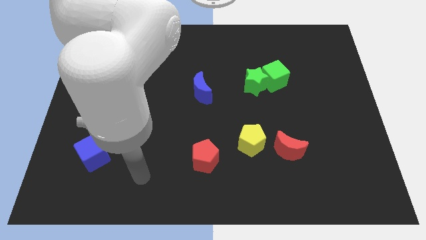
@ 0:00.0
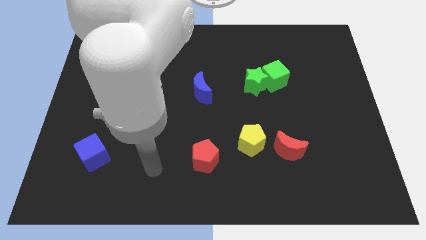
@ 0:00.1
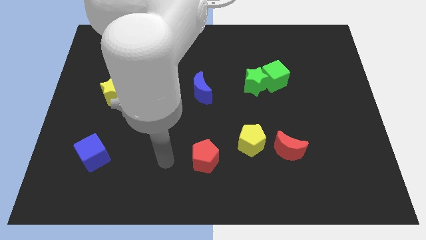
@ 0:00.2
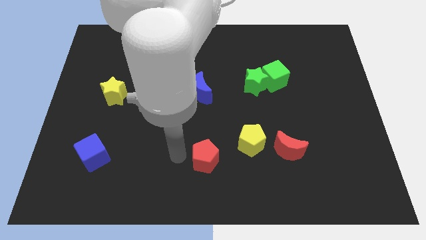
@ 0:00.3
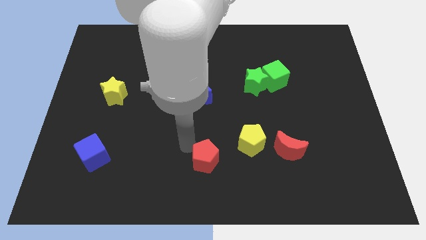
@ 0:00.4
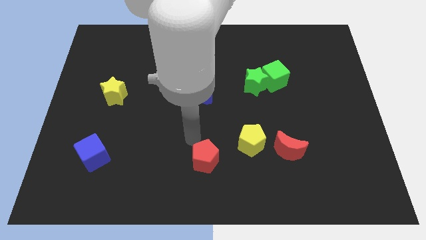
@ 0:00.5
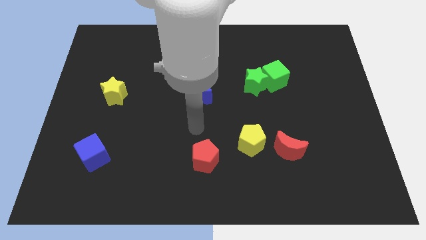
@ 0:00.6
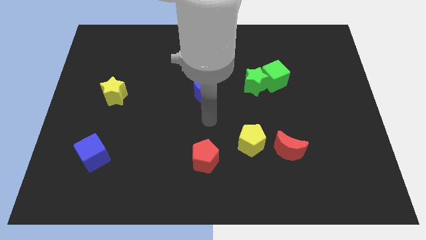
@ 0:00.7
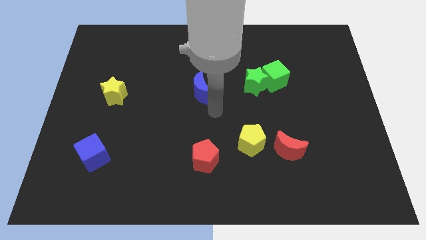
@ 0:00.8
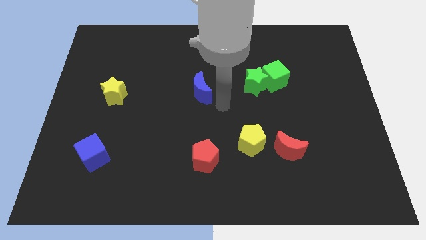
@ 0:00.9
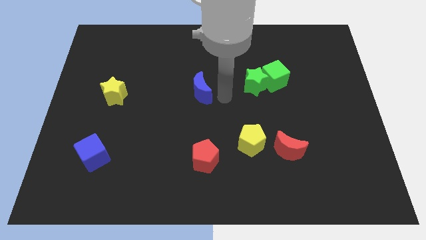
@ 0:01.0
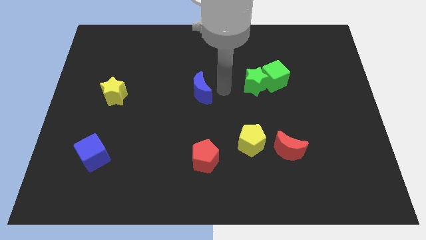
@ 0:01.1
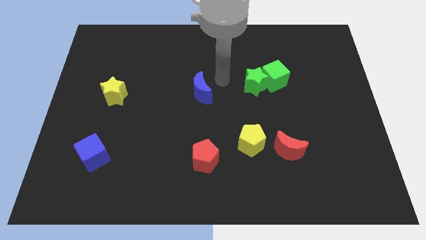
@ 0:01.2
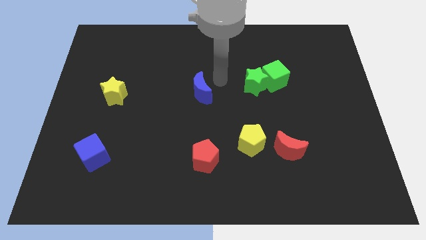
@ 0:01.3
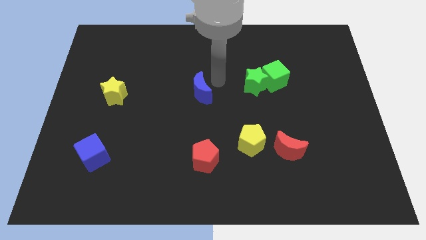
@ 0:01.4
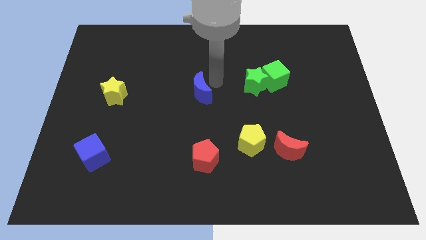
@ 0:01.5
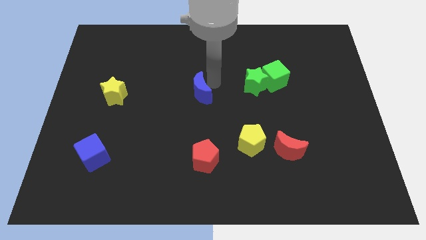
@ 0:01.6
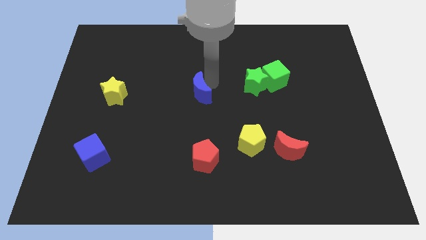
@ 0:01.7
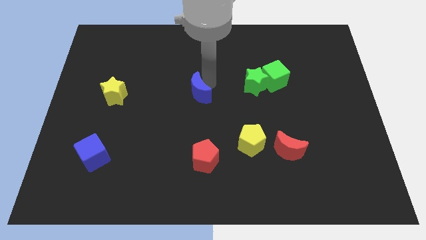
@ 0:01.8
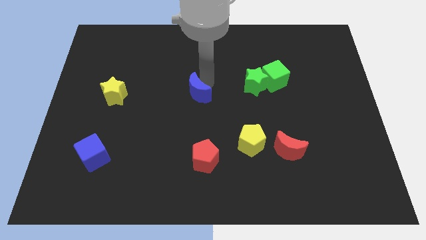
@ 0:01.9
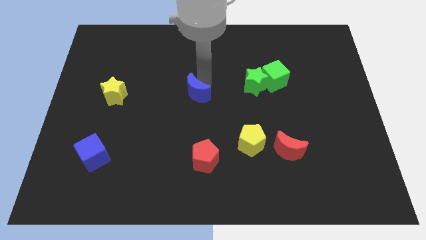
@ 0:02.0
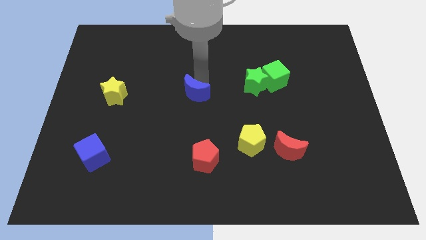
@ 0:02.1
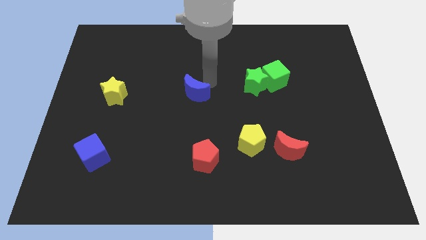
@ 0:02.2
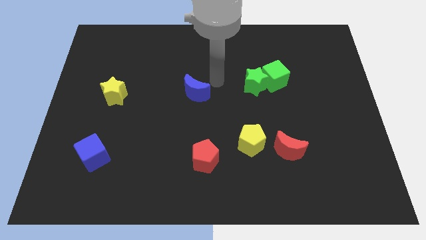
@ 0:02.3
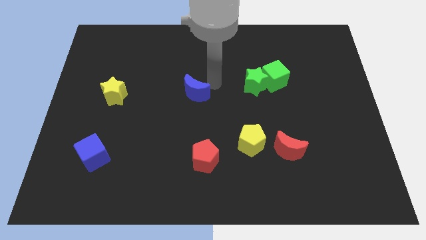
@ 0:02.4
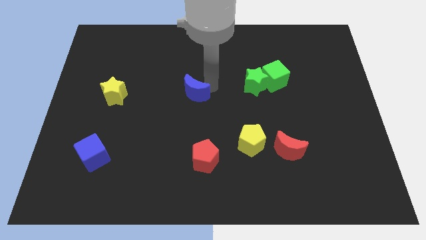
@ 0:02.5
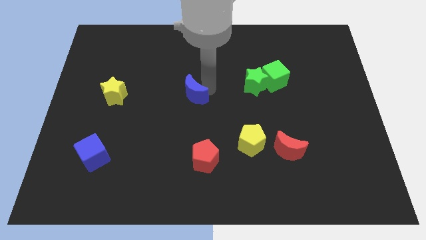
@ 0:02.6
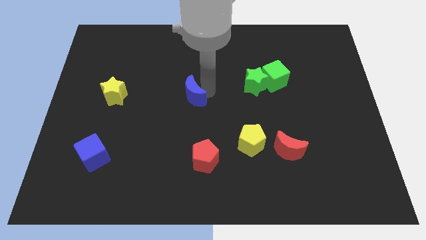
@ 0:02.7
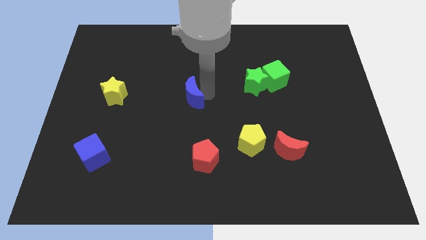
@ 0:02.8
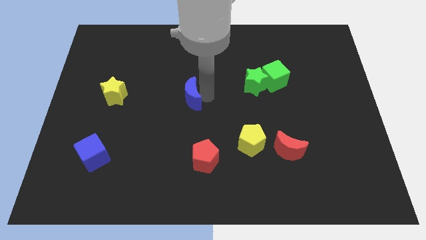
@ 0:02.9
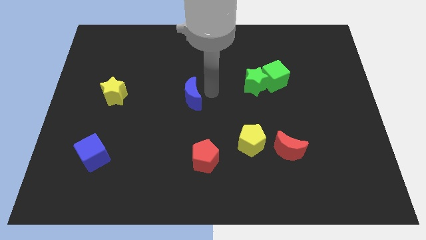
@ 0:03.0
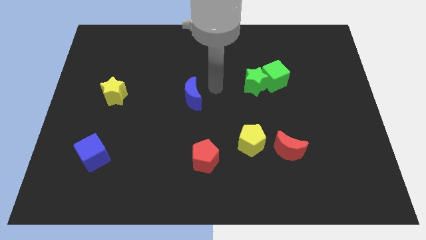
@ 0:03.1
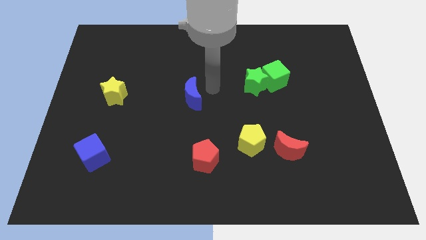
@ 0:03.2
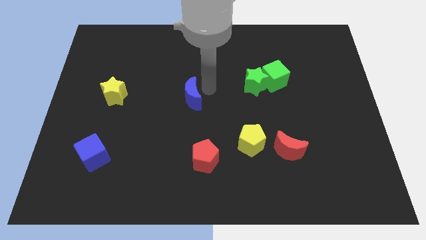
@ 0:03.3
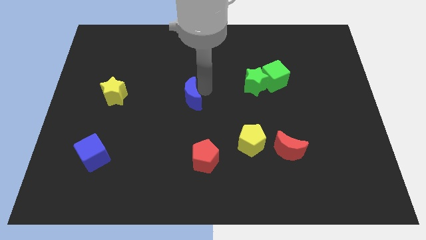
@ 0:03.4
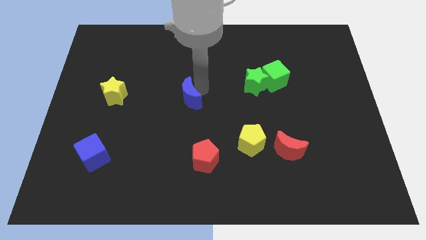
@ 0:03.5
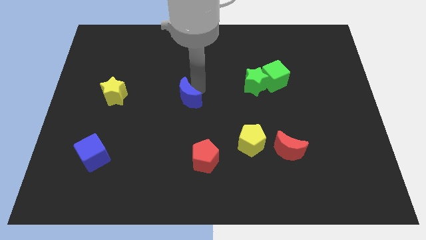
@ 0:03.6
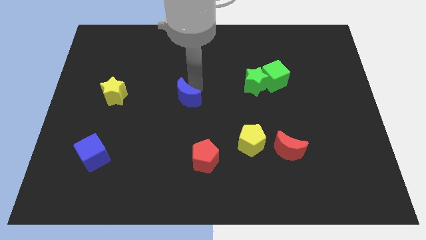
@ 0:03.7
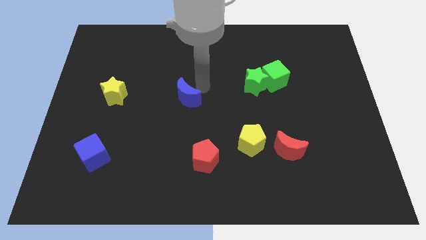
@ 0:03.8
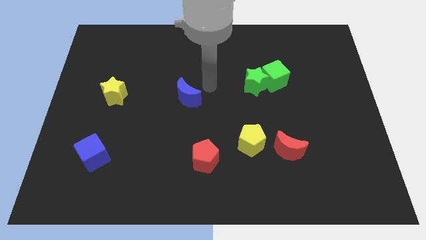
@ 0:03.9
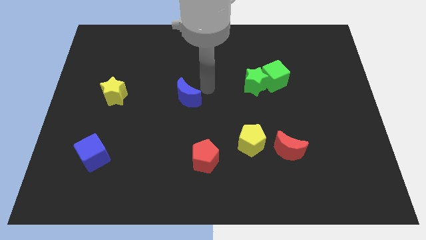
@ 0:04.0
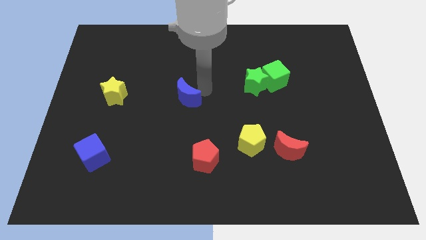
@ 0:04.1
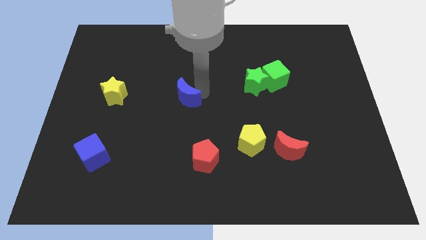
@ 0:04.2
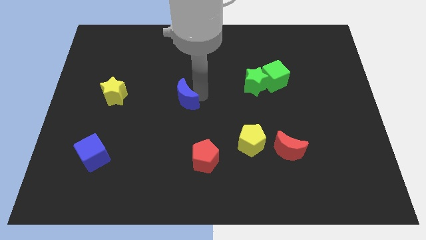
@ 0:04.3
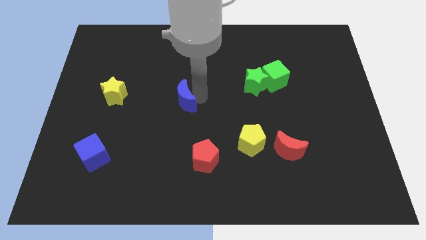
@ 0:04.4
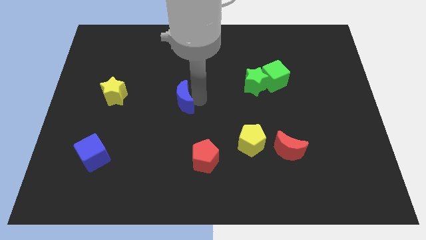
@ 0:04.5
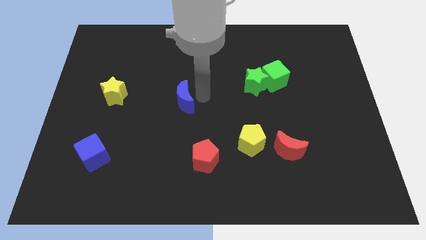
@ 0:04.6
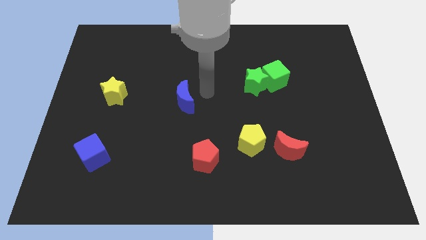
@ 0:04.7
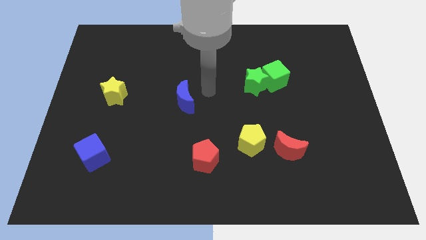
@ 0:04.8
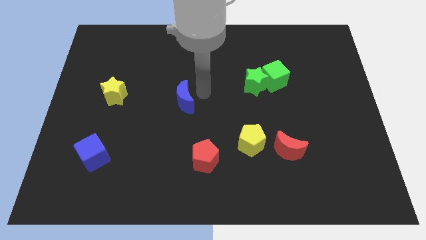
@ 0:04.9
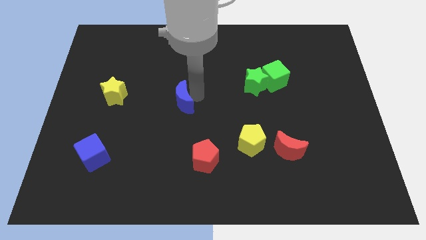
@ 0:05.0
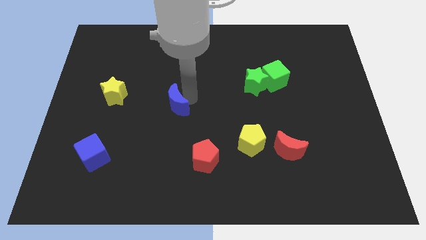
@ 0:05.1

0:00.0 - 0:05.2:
push the blue moon slightly downwards and to the left

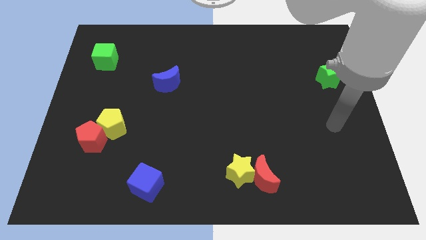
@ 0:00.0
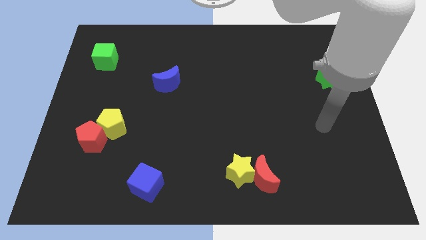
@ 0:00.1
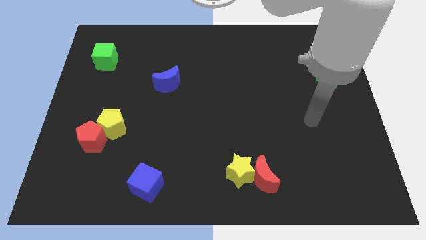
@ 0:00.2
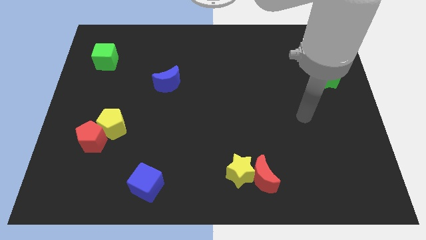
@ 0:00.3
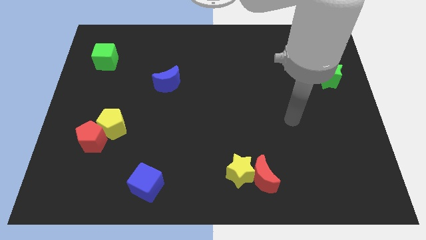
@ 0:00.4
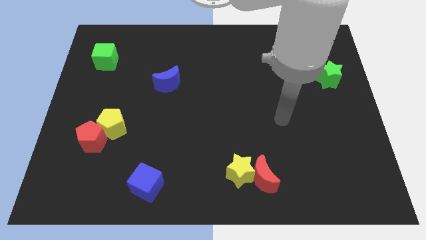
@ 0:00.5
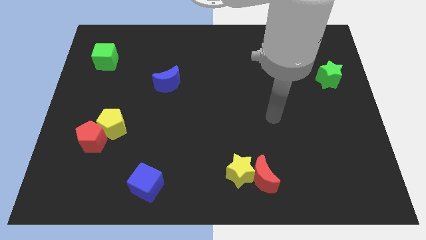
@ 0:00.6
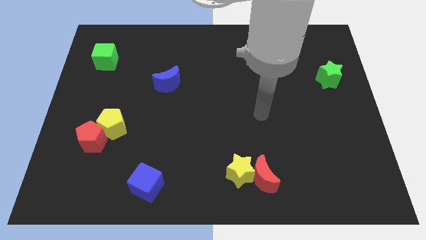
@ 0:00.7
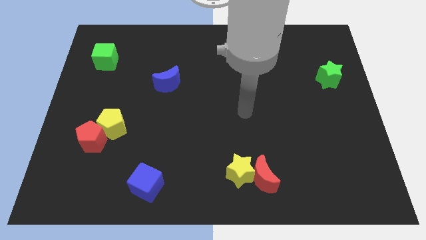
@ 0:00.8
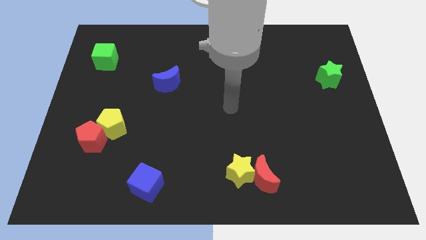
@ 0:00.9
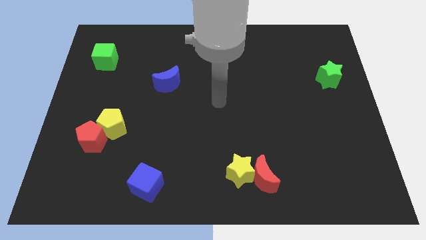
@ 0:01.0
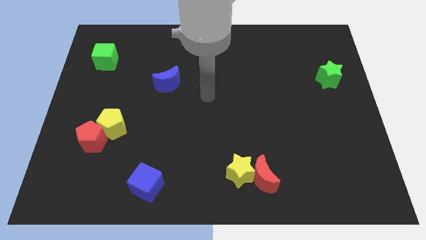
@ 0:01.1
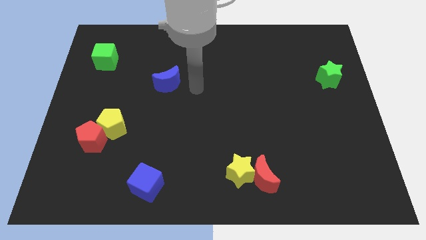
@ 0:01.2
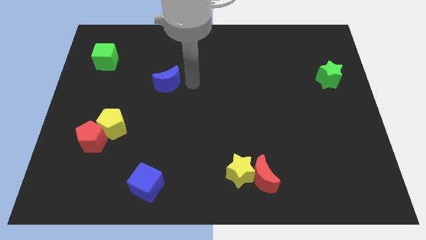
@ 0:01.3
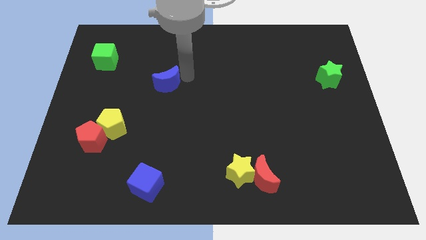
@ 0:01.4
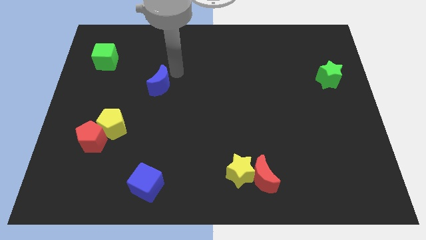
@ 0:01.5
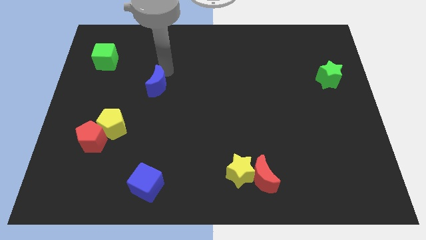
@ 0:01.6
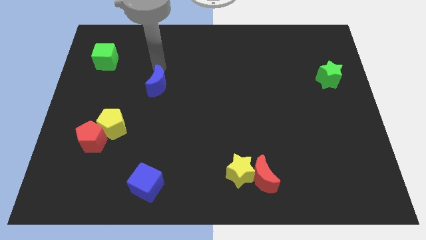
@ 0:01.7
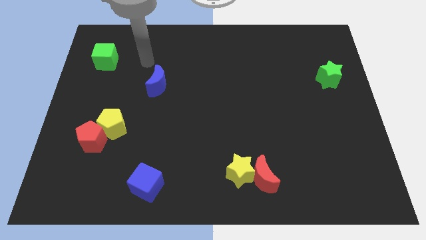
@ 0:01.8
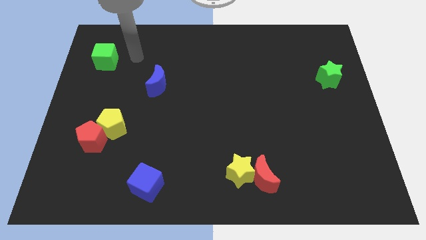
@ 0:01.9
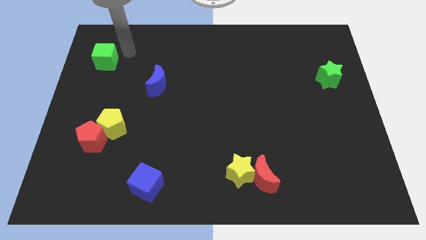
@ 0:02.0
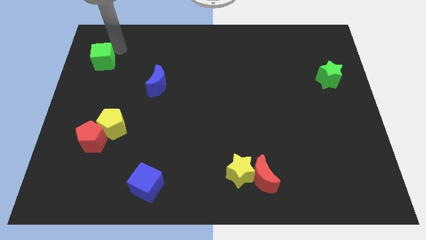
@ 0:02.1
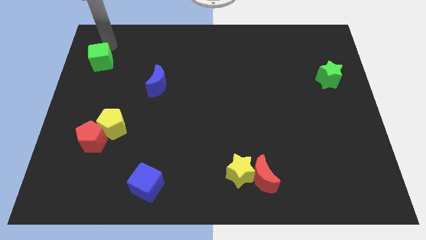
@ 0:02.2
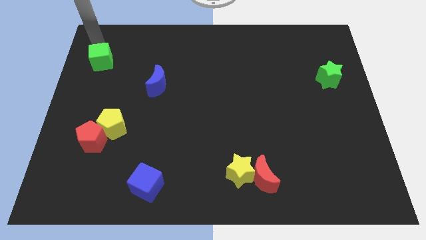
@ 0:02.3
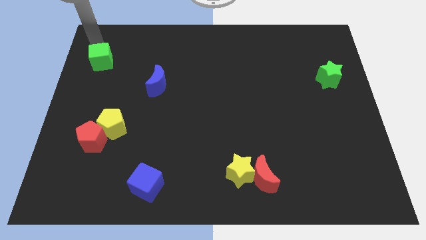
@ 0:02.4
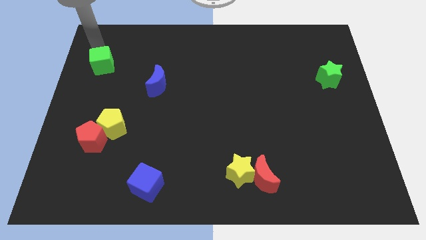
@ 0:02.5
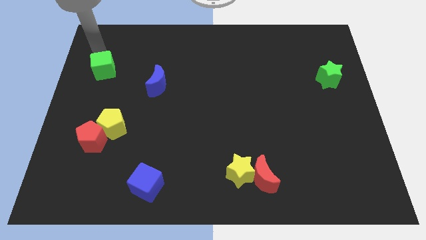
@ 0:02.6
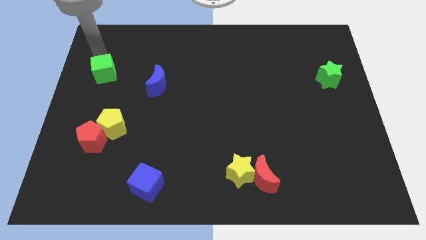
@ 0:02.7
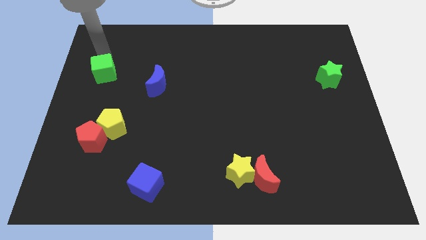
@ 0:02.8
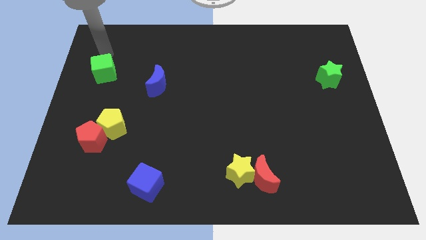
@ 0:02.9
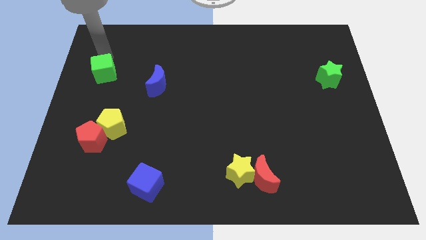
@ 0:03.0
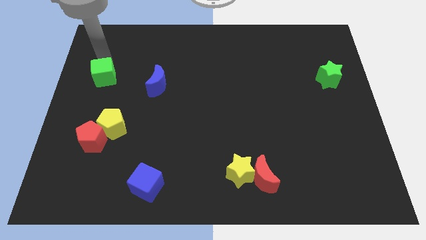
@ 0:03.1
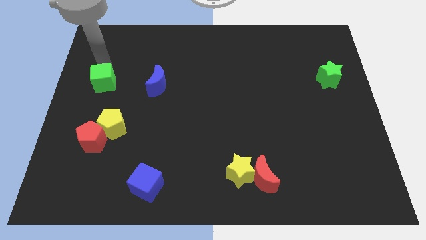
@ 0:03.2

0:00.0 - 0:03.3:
slightly push the green cube downwards
